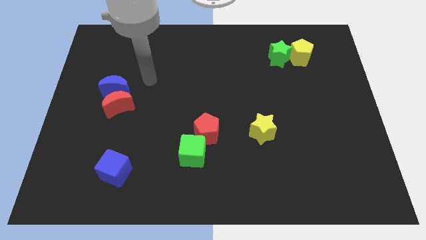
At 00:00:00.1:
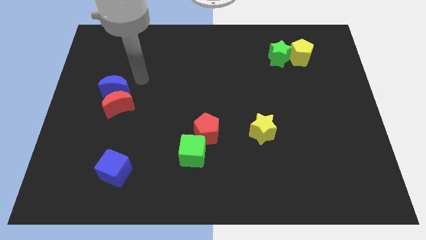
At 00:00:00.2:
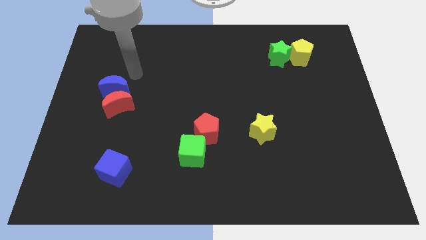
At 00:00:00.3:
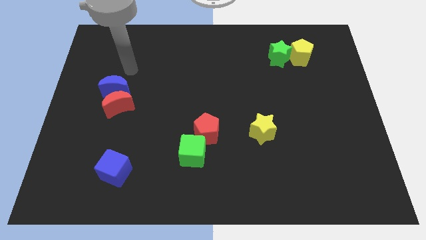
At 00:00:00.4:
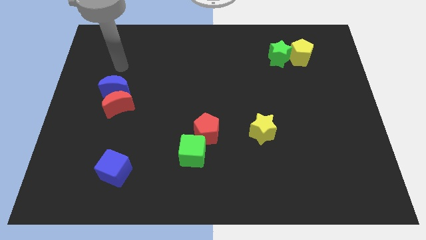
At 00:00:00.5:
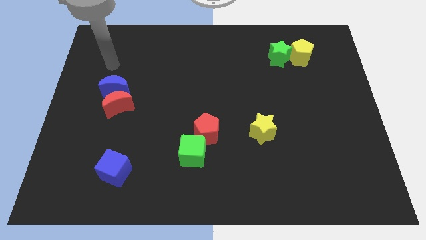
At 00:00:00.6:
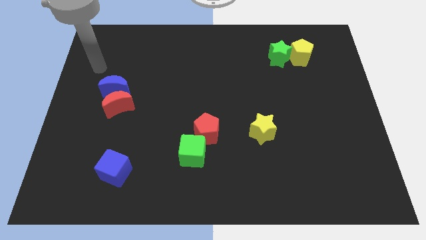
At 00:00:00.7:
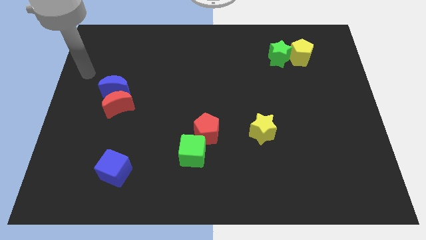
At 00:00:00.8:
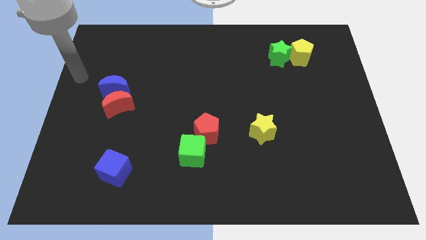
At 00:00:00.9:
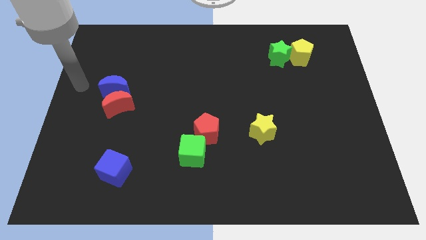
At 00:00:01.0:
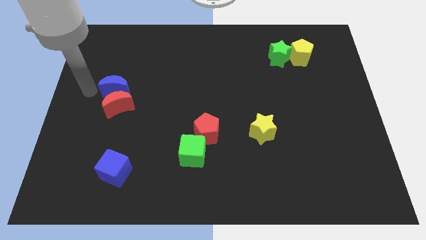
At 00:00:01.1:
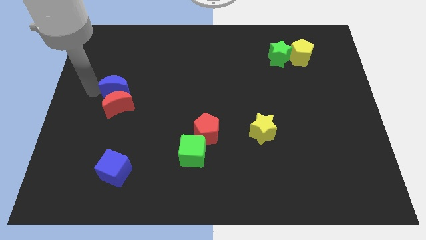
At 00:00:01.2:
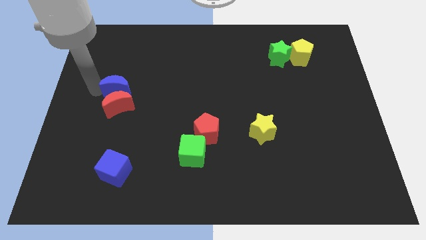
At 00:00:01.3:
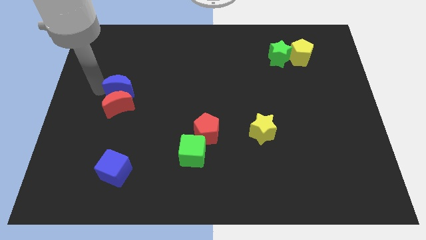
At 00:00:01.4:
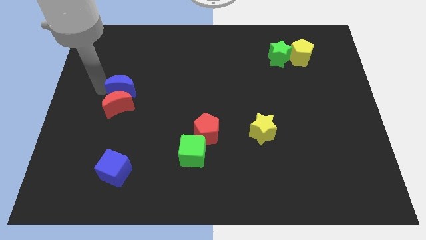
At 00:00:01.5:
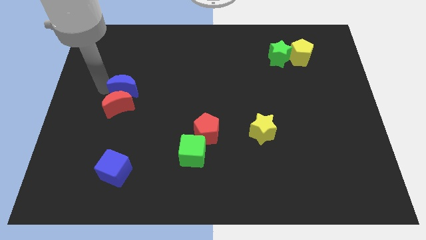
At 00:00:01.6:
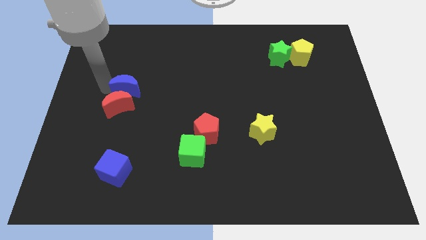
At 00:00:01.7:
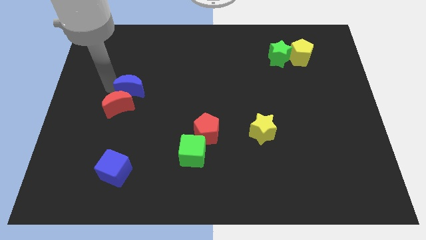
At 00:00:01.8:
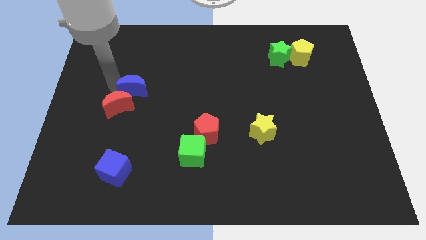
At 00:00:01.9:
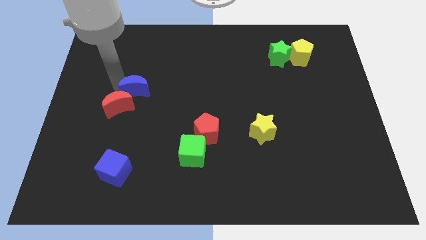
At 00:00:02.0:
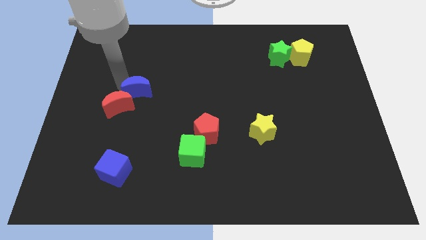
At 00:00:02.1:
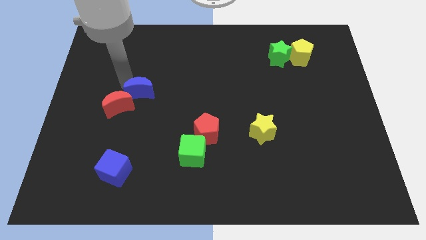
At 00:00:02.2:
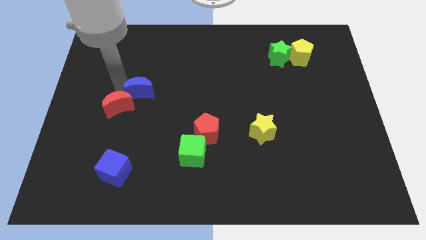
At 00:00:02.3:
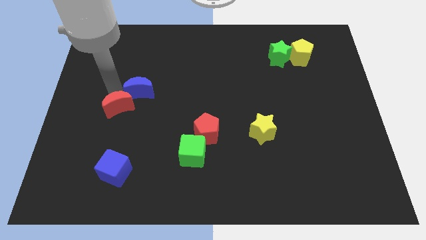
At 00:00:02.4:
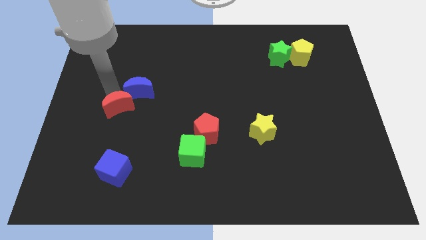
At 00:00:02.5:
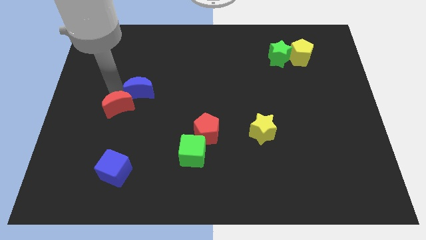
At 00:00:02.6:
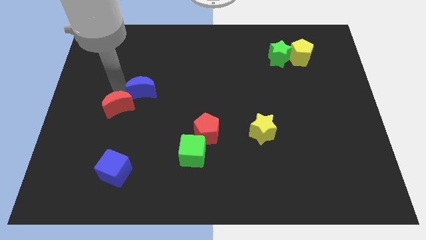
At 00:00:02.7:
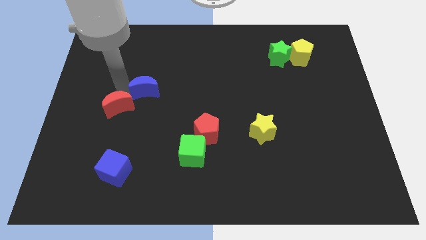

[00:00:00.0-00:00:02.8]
push the blue moon to the right somewhat

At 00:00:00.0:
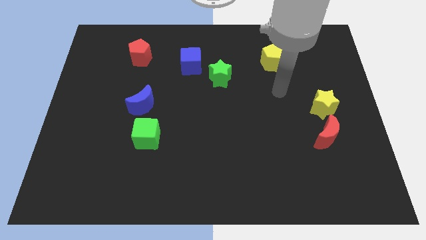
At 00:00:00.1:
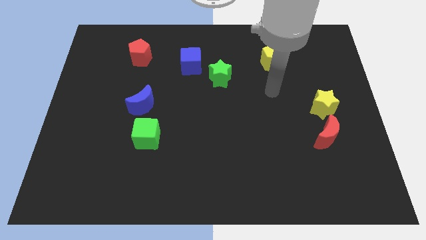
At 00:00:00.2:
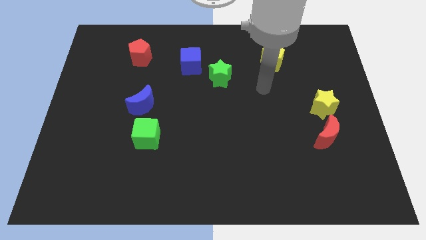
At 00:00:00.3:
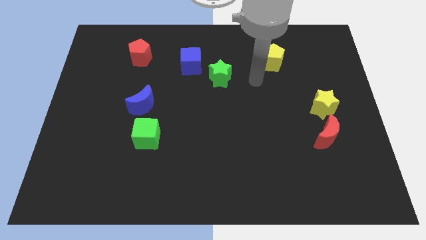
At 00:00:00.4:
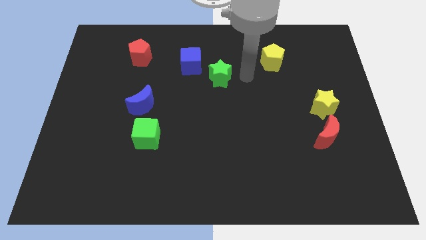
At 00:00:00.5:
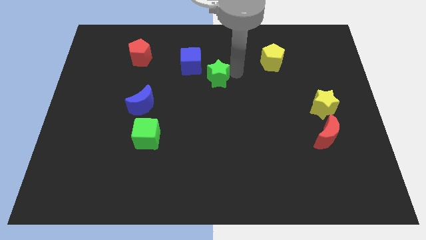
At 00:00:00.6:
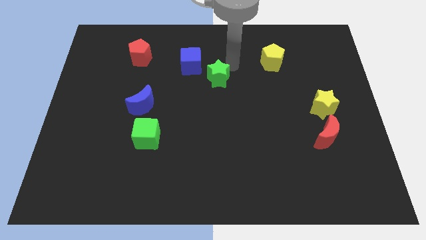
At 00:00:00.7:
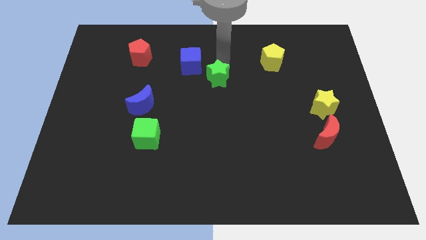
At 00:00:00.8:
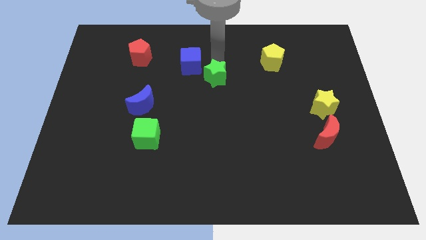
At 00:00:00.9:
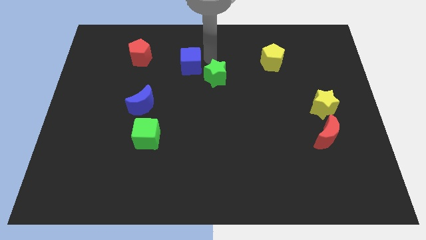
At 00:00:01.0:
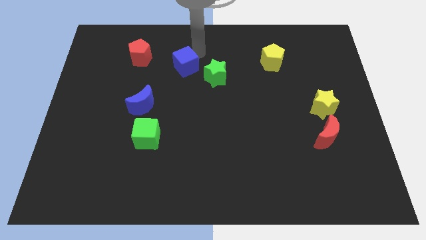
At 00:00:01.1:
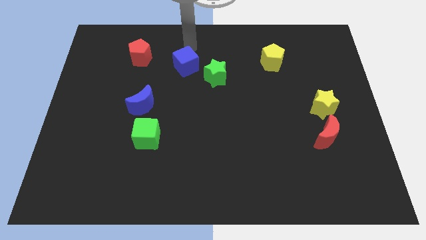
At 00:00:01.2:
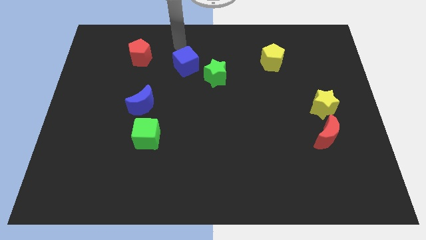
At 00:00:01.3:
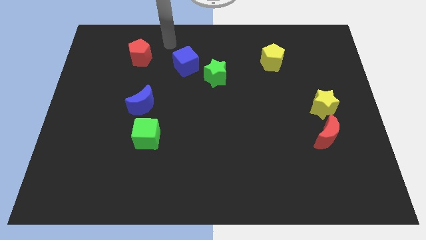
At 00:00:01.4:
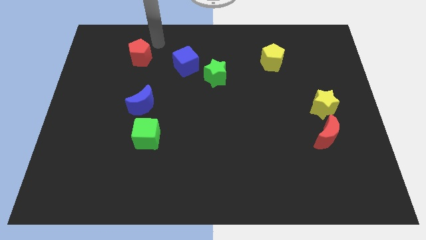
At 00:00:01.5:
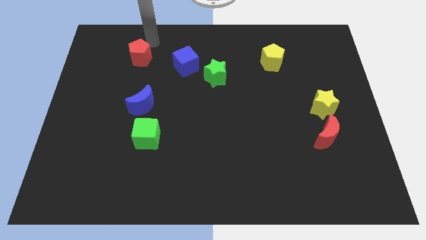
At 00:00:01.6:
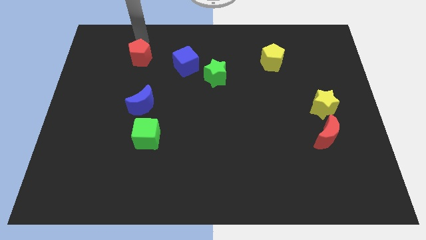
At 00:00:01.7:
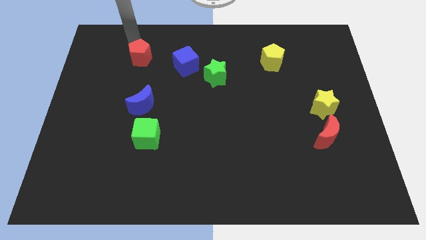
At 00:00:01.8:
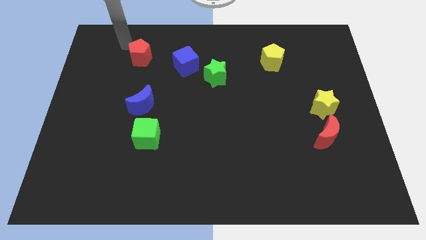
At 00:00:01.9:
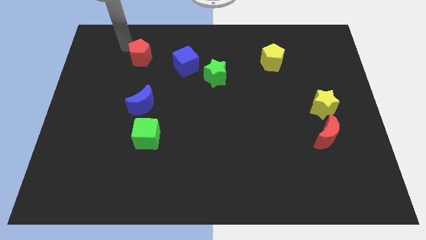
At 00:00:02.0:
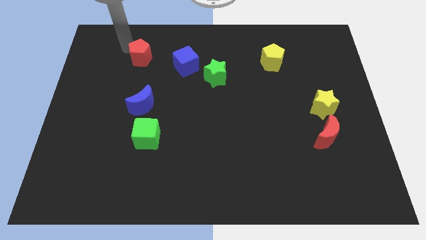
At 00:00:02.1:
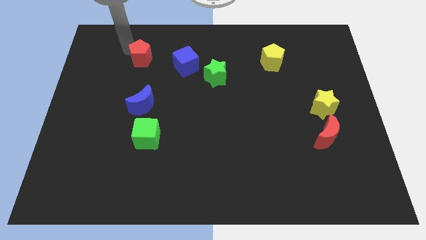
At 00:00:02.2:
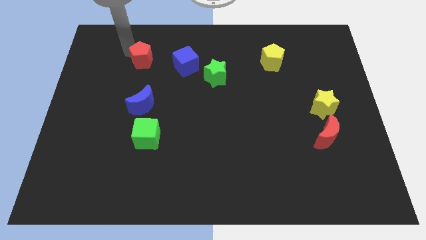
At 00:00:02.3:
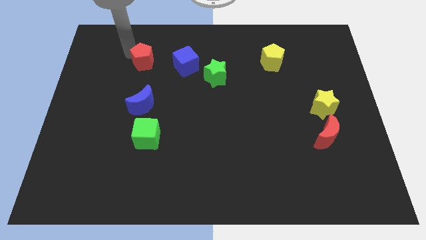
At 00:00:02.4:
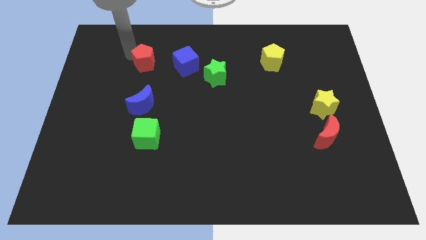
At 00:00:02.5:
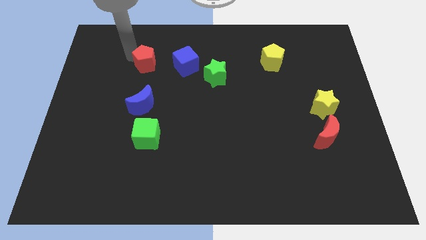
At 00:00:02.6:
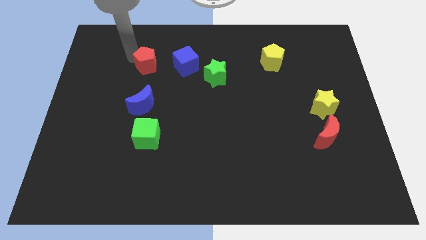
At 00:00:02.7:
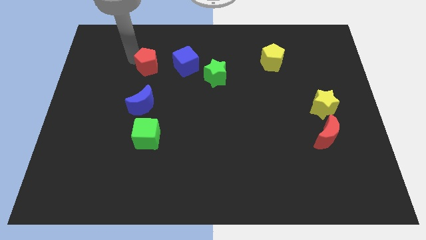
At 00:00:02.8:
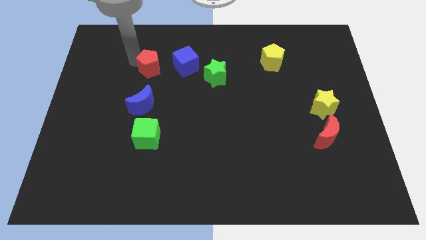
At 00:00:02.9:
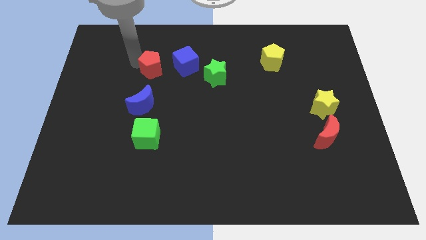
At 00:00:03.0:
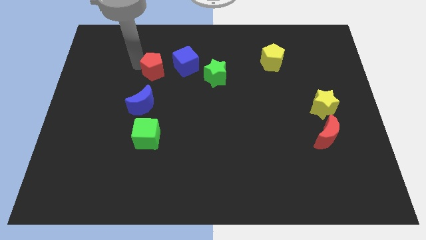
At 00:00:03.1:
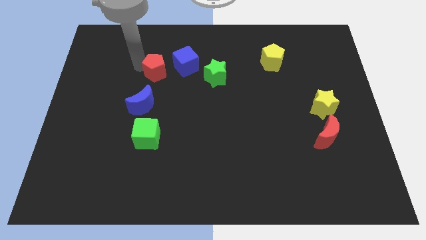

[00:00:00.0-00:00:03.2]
slide the red pentagon diagonally downwards and right a bit

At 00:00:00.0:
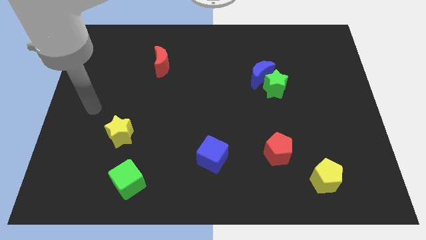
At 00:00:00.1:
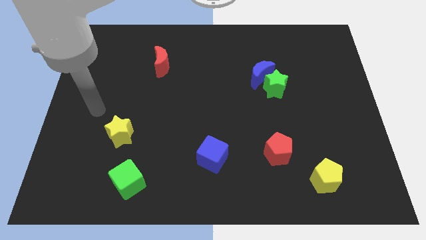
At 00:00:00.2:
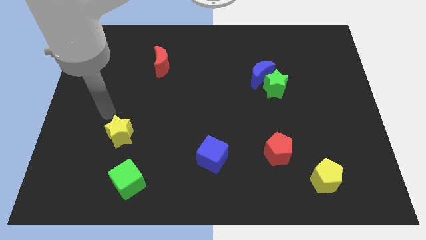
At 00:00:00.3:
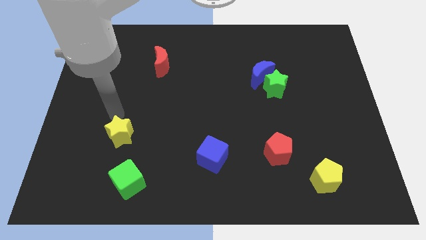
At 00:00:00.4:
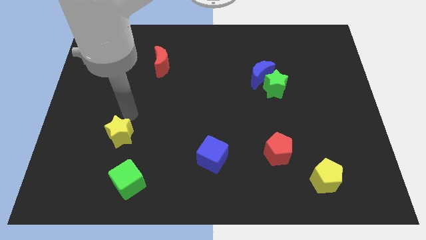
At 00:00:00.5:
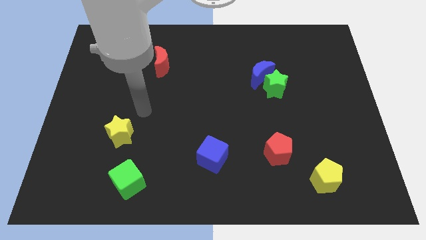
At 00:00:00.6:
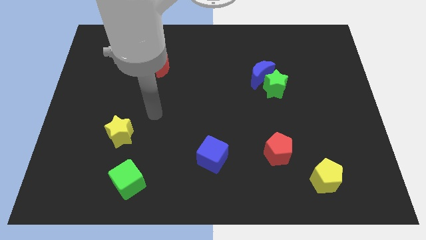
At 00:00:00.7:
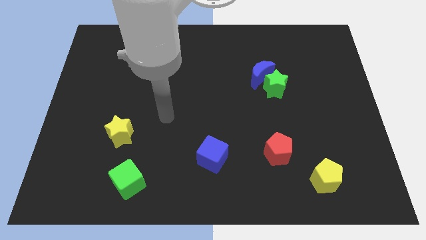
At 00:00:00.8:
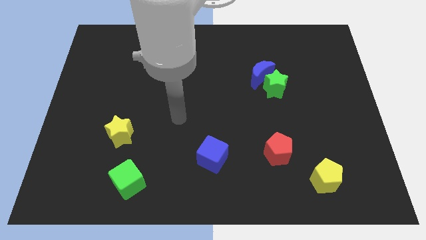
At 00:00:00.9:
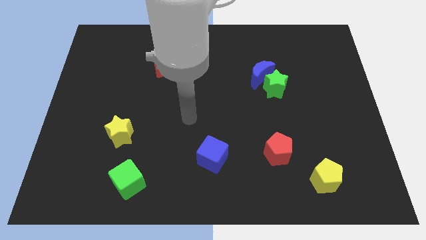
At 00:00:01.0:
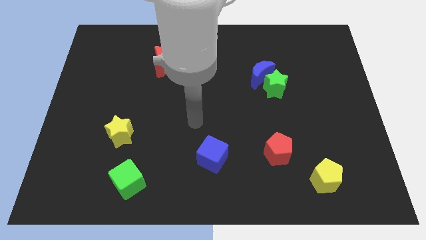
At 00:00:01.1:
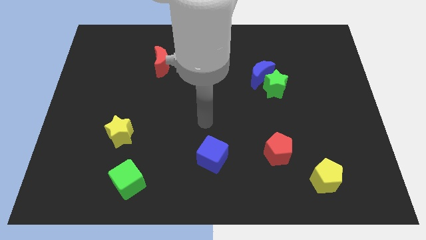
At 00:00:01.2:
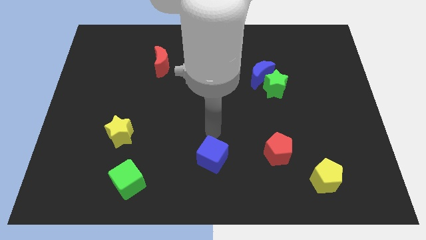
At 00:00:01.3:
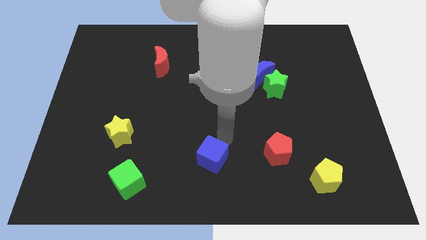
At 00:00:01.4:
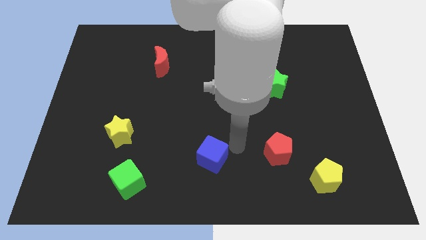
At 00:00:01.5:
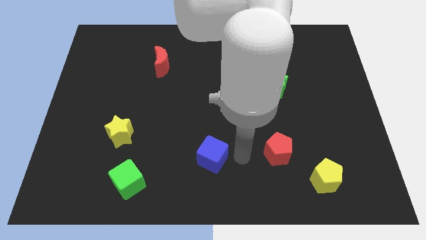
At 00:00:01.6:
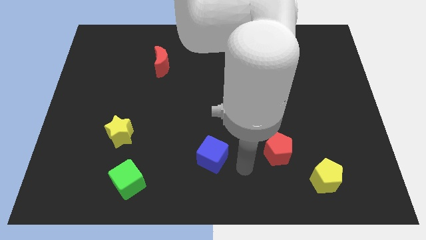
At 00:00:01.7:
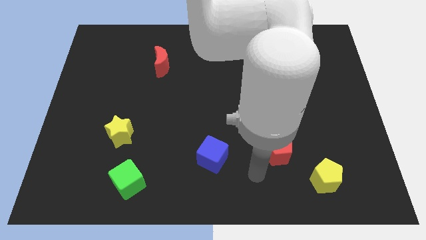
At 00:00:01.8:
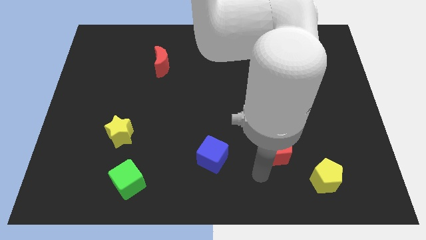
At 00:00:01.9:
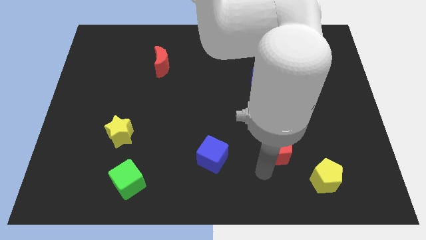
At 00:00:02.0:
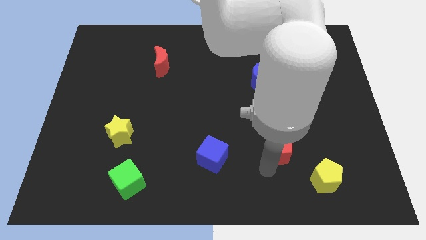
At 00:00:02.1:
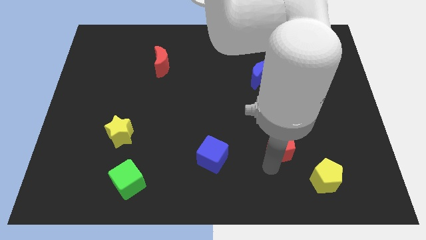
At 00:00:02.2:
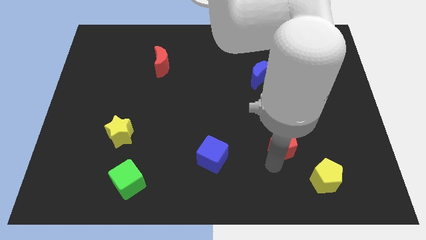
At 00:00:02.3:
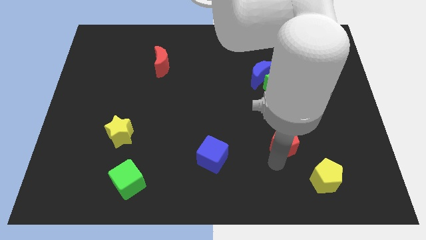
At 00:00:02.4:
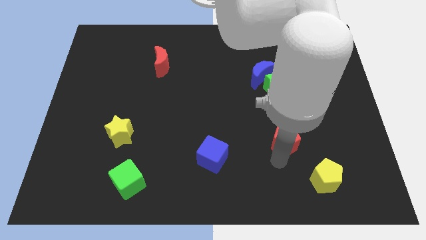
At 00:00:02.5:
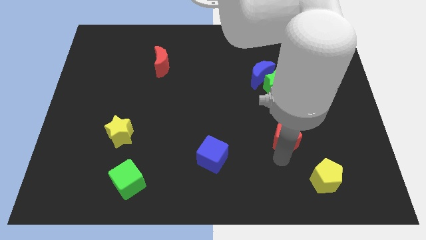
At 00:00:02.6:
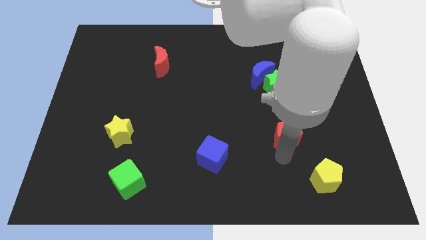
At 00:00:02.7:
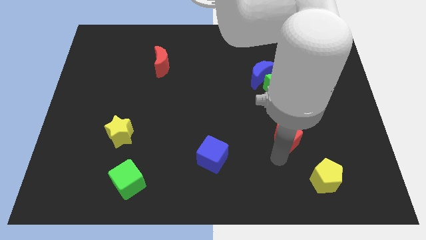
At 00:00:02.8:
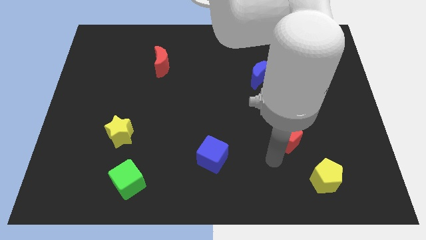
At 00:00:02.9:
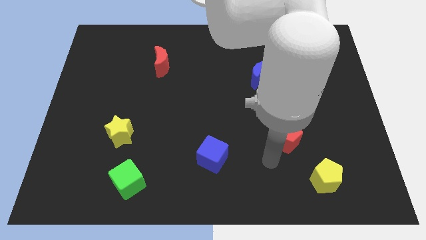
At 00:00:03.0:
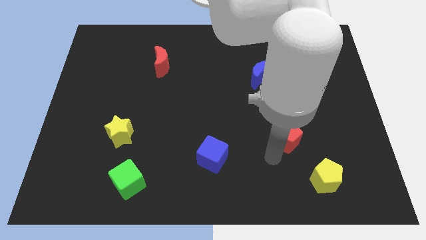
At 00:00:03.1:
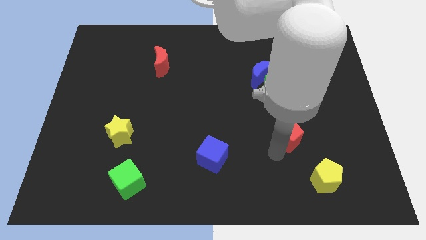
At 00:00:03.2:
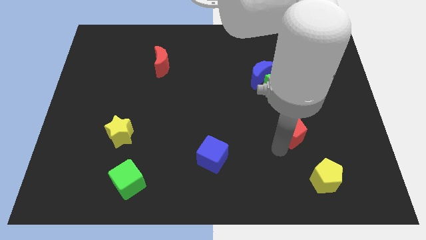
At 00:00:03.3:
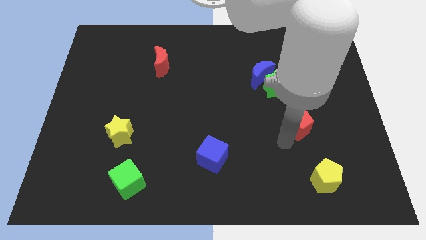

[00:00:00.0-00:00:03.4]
push the red pentagon diagonally upwards and to the right slightly
